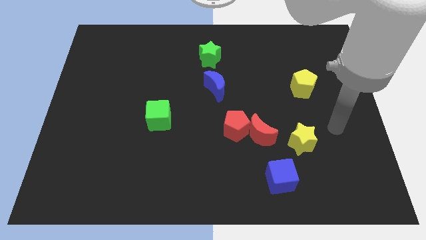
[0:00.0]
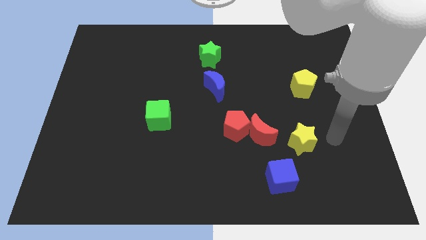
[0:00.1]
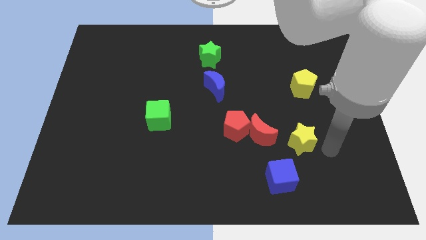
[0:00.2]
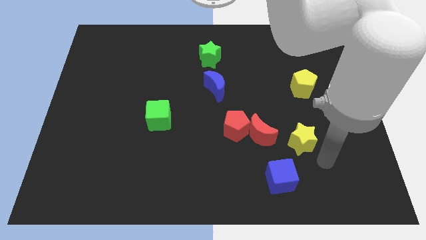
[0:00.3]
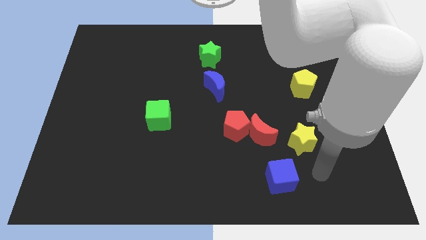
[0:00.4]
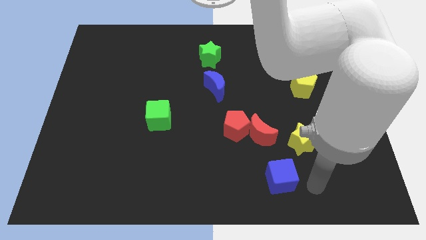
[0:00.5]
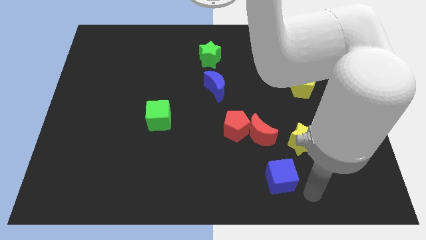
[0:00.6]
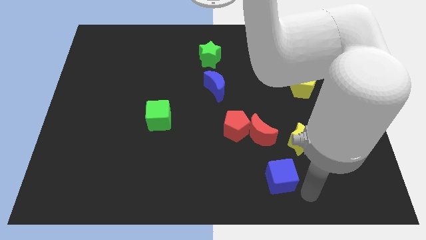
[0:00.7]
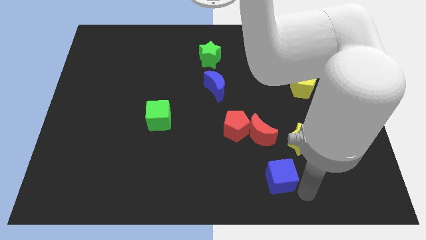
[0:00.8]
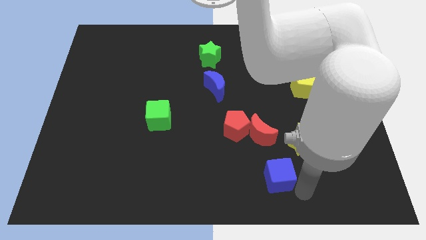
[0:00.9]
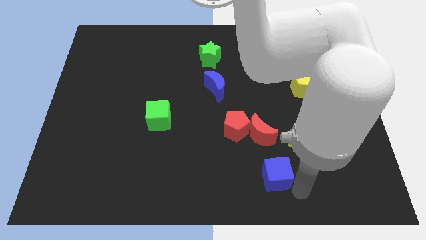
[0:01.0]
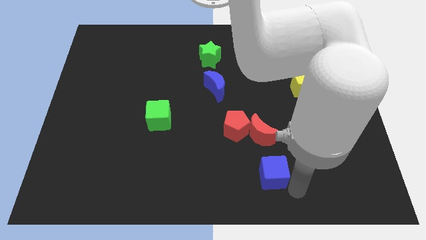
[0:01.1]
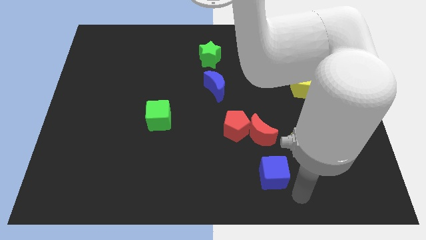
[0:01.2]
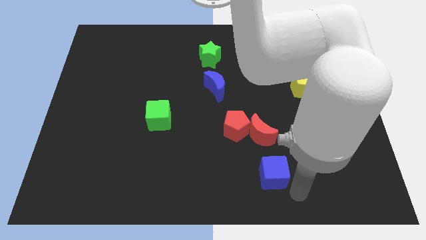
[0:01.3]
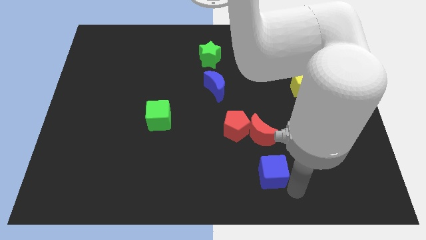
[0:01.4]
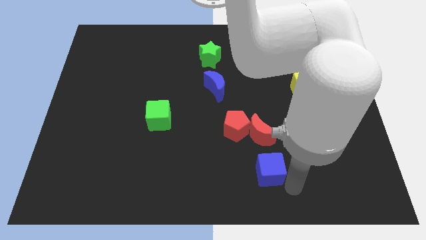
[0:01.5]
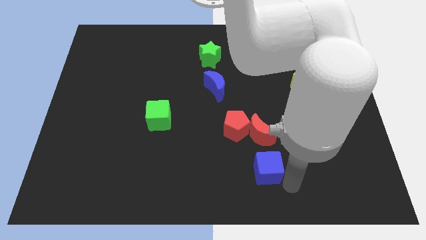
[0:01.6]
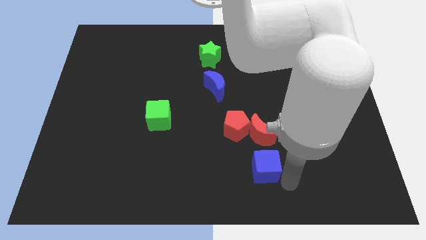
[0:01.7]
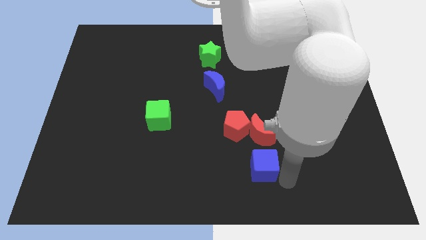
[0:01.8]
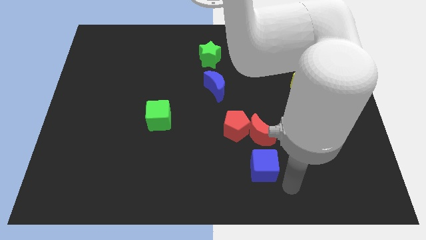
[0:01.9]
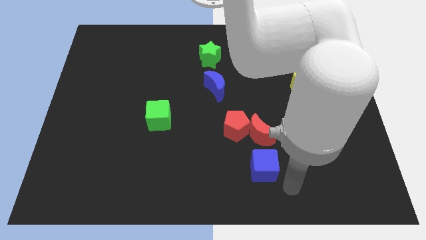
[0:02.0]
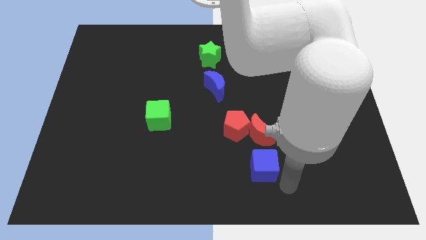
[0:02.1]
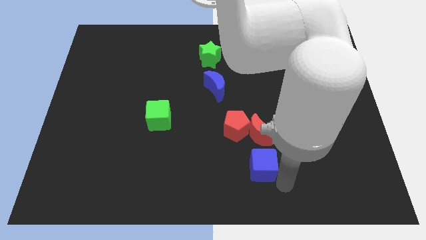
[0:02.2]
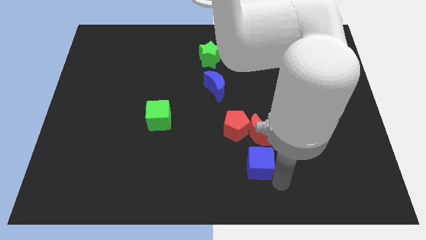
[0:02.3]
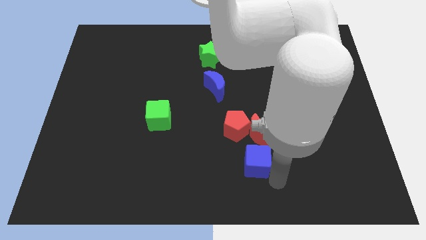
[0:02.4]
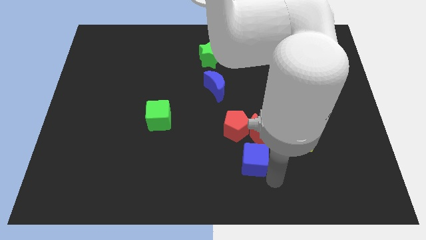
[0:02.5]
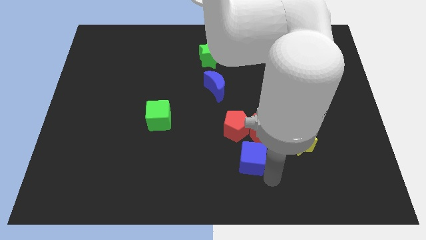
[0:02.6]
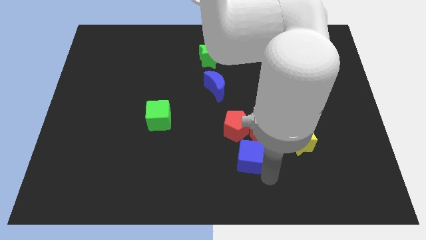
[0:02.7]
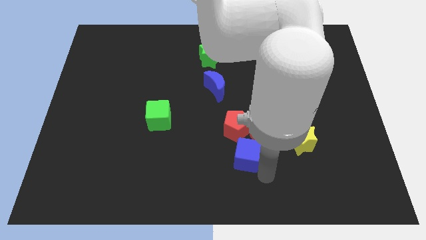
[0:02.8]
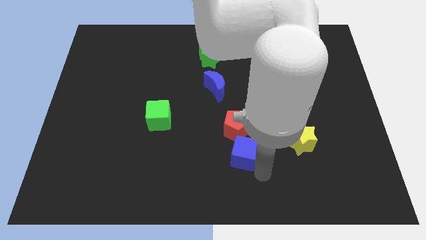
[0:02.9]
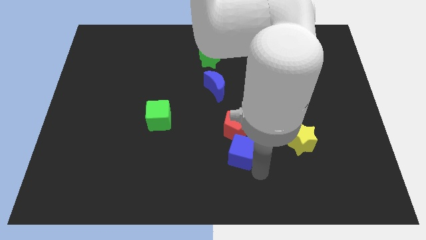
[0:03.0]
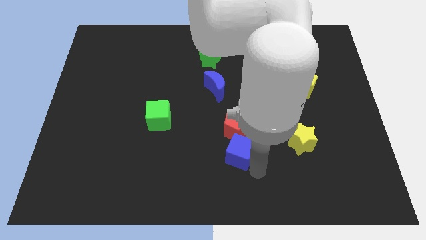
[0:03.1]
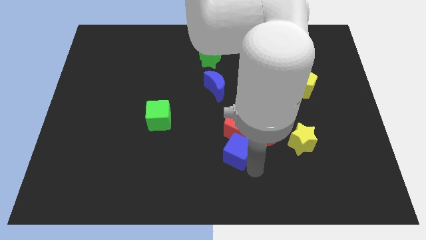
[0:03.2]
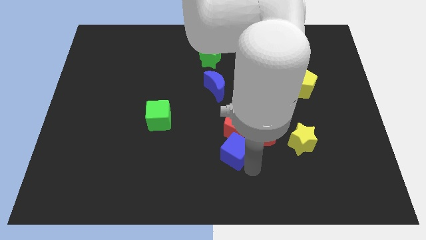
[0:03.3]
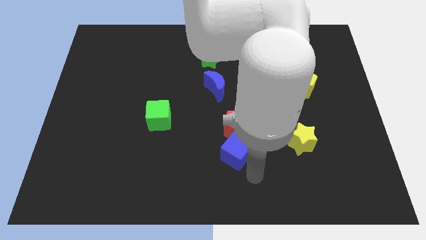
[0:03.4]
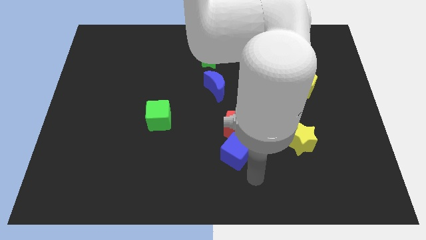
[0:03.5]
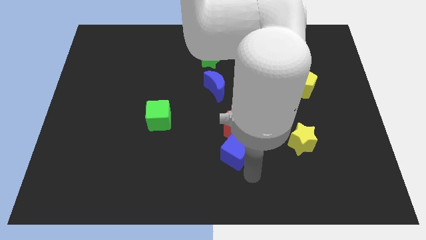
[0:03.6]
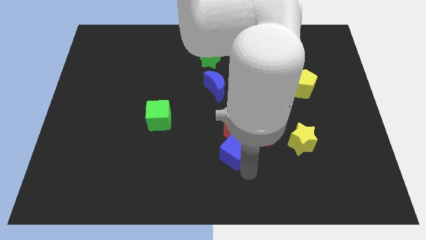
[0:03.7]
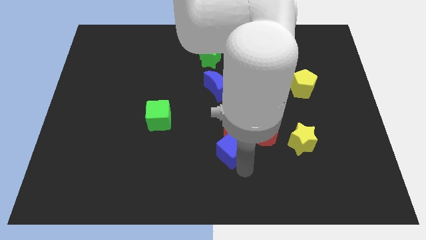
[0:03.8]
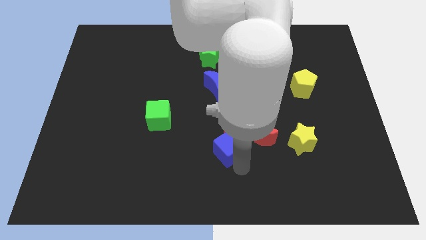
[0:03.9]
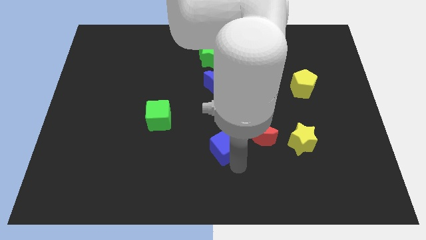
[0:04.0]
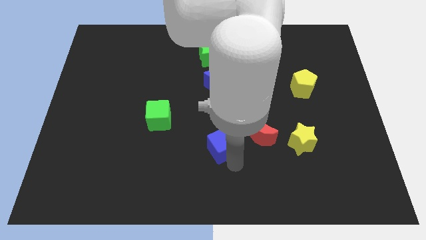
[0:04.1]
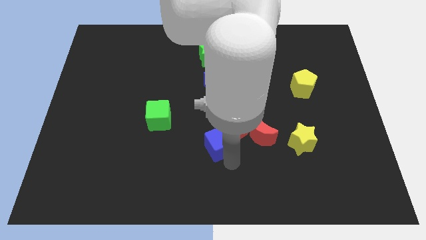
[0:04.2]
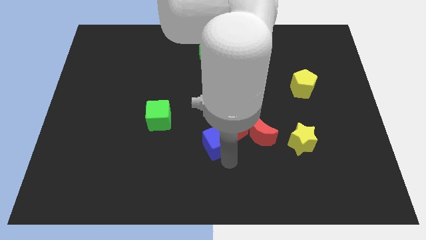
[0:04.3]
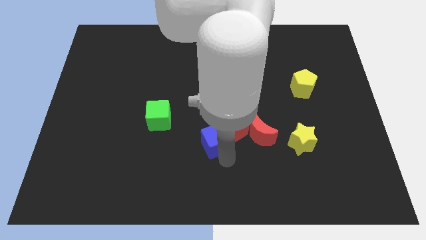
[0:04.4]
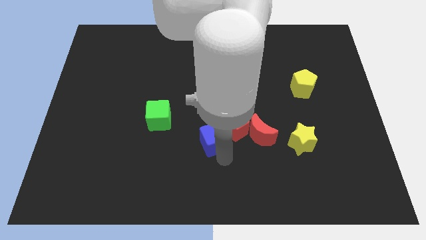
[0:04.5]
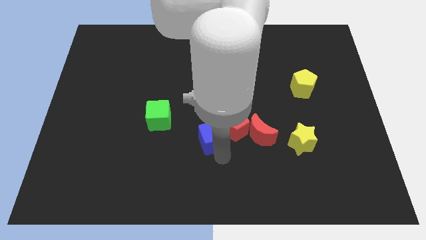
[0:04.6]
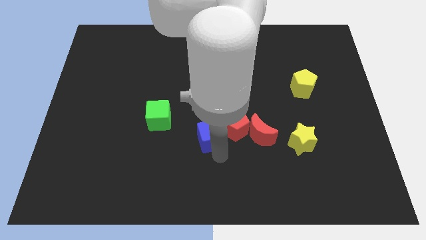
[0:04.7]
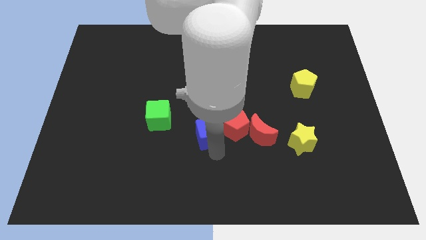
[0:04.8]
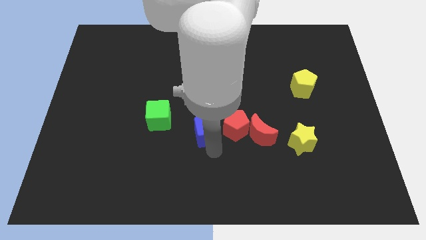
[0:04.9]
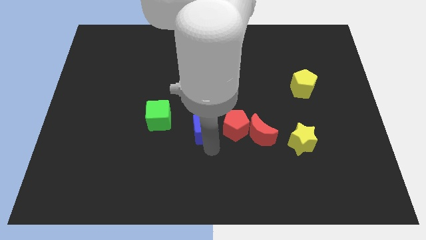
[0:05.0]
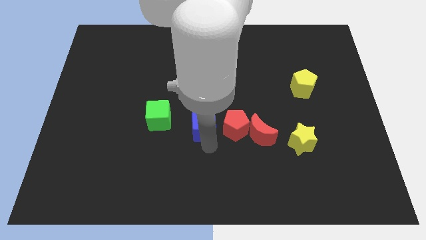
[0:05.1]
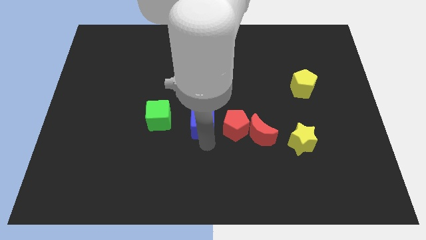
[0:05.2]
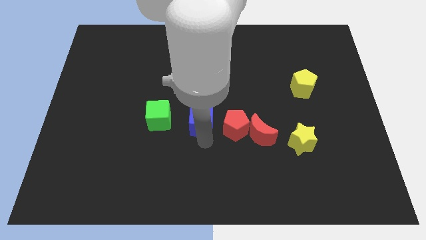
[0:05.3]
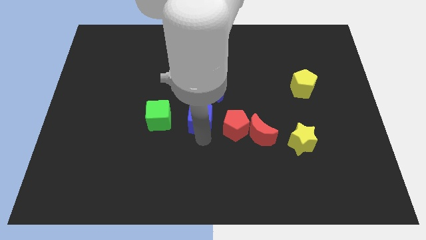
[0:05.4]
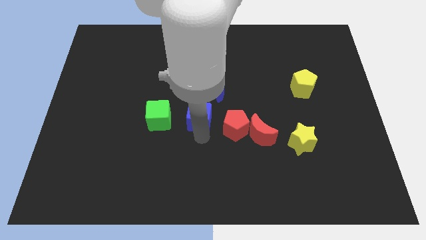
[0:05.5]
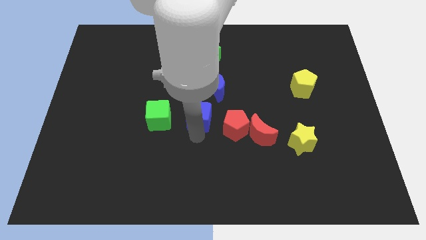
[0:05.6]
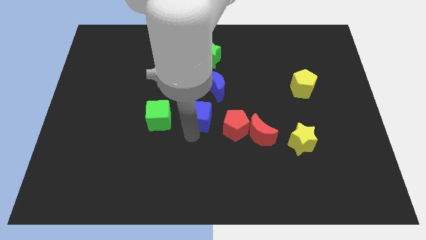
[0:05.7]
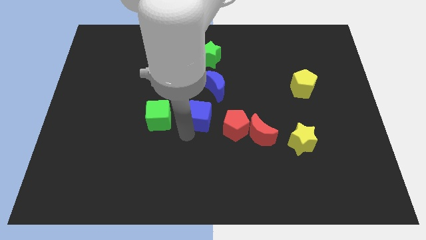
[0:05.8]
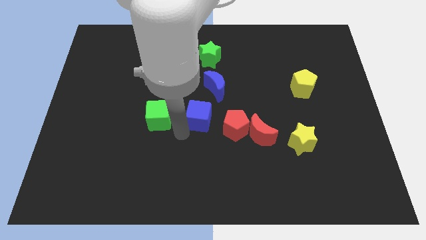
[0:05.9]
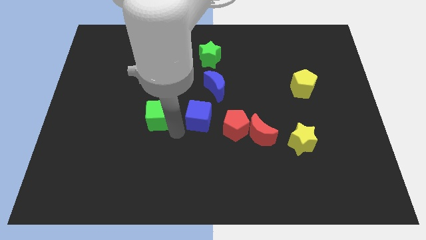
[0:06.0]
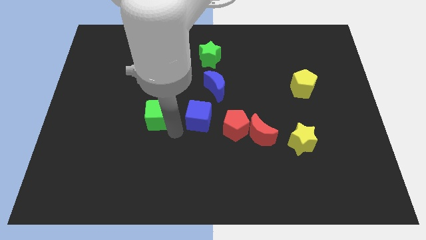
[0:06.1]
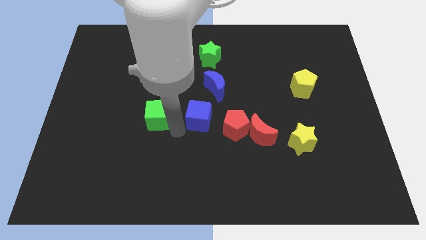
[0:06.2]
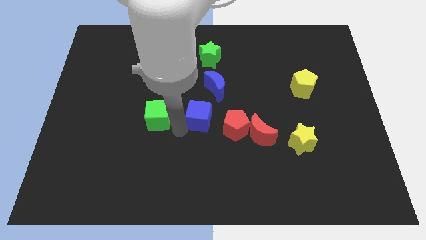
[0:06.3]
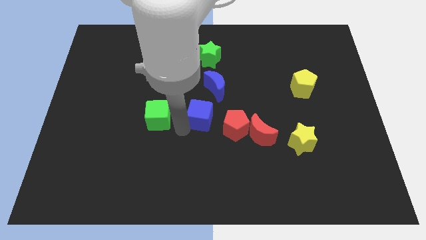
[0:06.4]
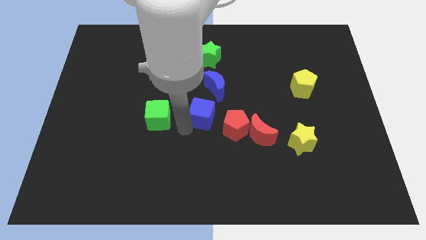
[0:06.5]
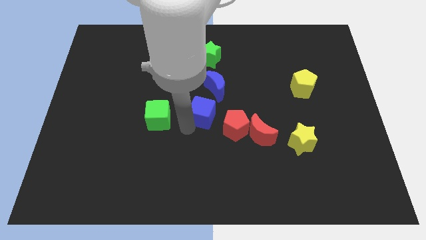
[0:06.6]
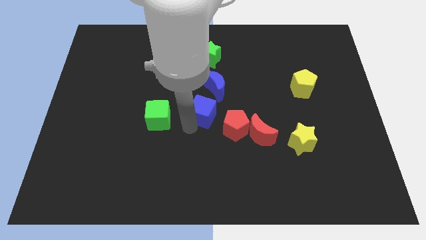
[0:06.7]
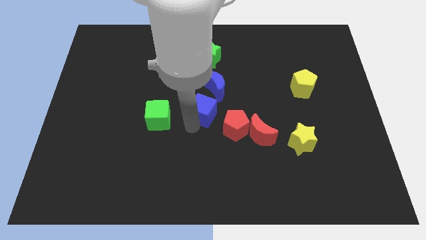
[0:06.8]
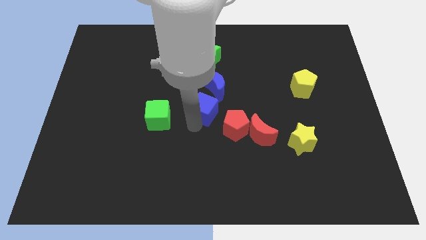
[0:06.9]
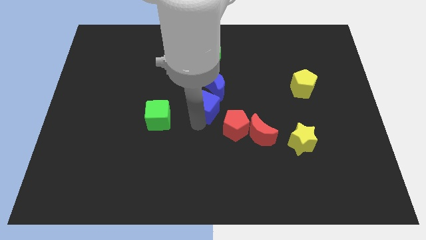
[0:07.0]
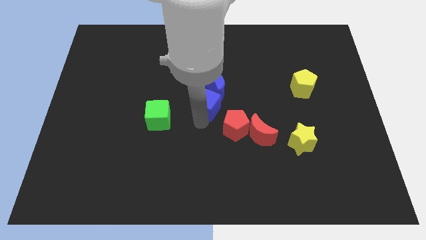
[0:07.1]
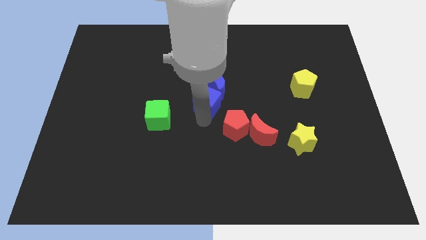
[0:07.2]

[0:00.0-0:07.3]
move the blue cube next to the blue moon
